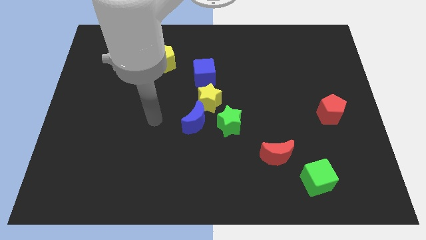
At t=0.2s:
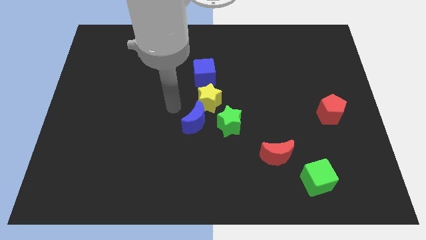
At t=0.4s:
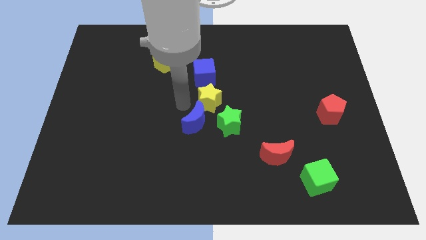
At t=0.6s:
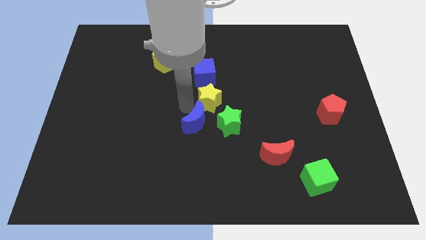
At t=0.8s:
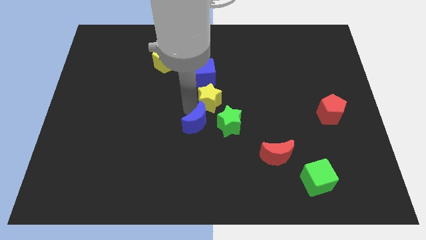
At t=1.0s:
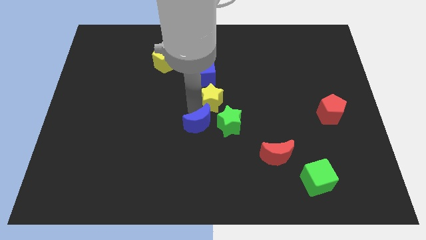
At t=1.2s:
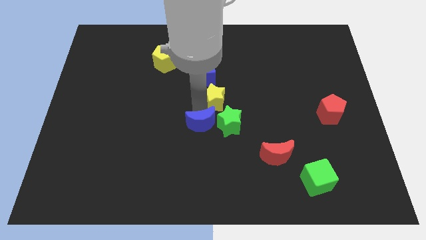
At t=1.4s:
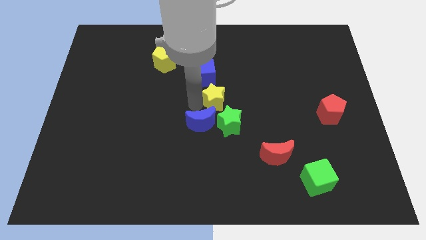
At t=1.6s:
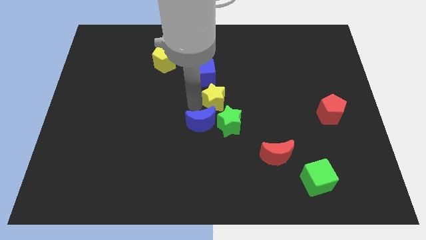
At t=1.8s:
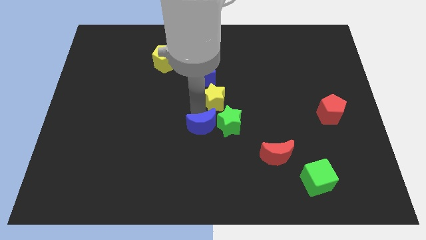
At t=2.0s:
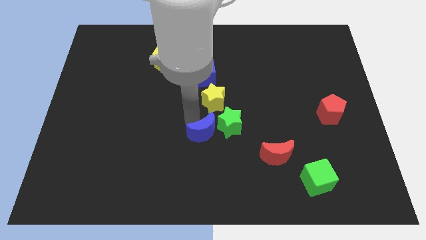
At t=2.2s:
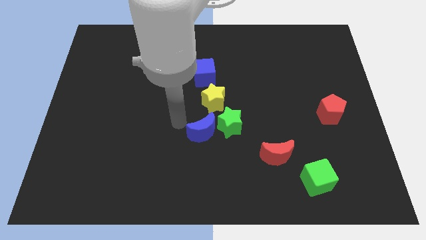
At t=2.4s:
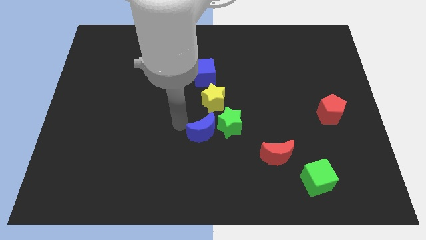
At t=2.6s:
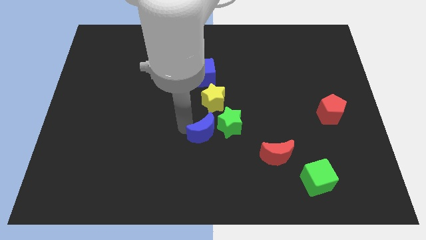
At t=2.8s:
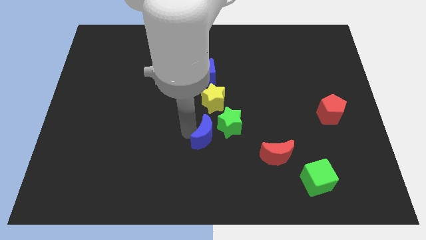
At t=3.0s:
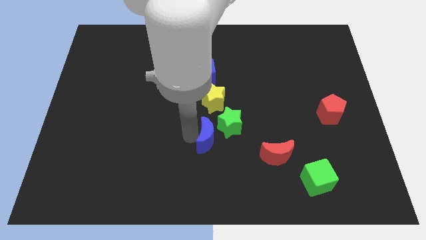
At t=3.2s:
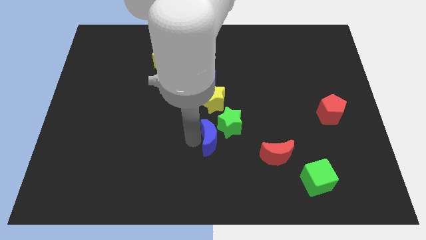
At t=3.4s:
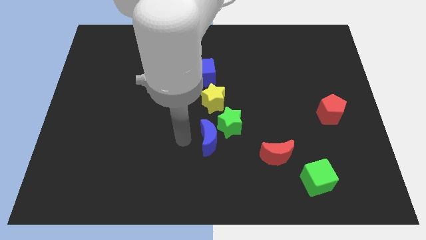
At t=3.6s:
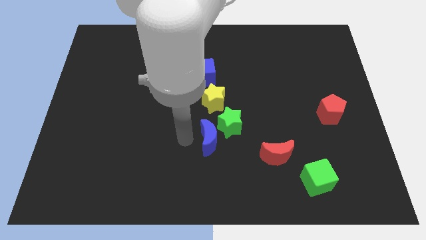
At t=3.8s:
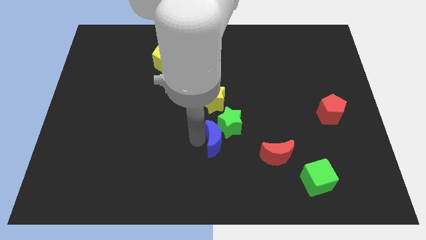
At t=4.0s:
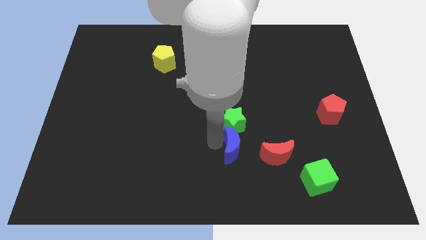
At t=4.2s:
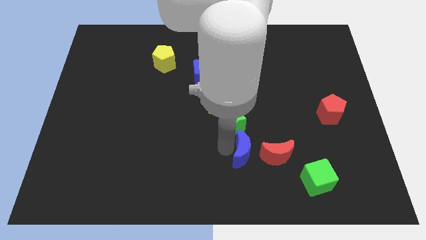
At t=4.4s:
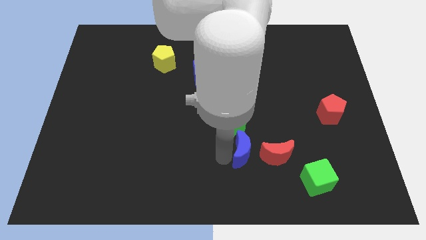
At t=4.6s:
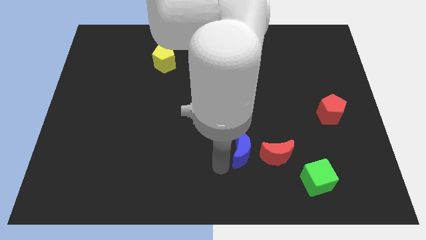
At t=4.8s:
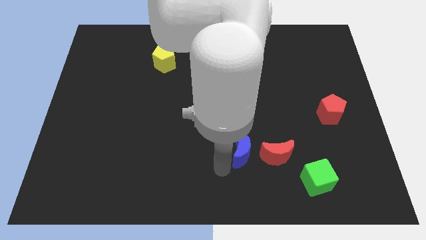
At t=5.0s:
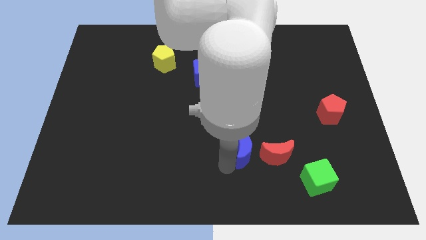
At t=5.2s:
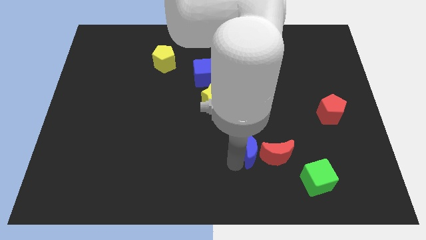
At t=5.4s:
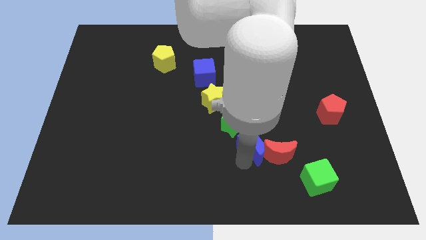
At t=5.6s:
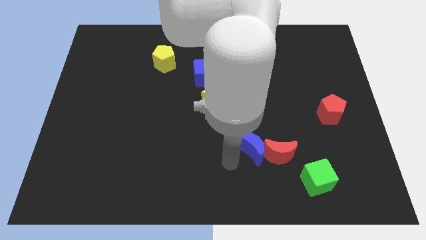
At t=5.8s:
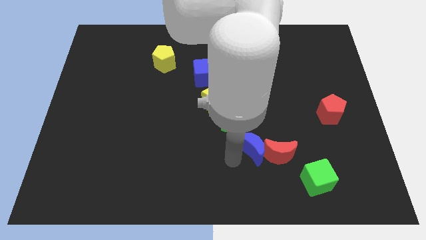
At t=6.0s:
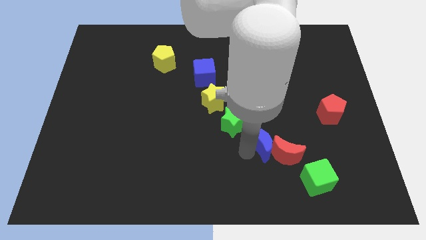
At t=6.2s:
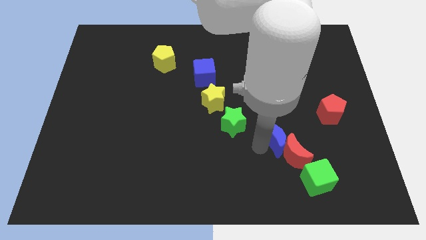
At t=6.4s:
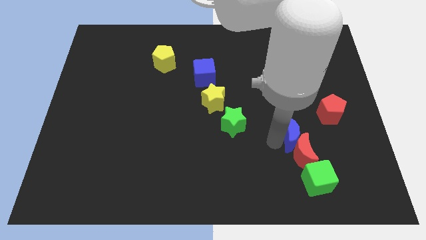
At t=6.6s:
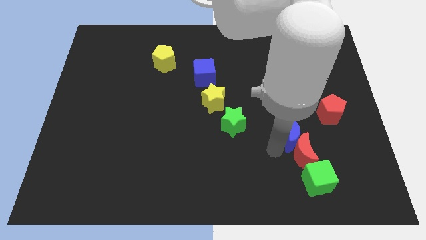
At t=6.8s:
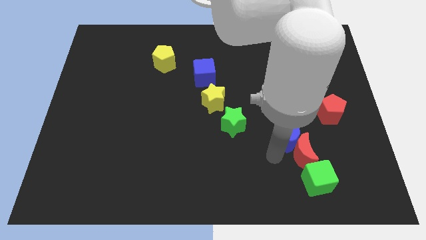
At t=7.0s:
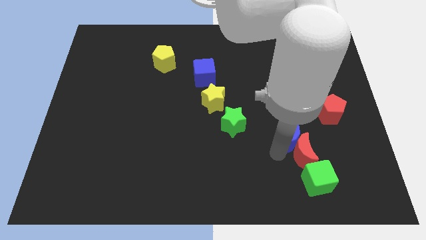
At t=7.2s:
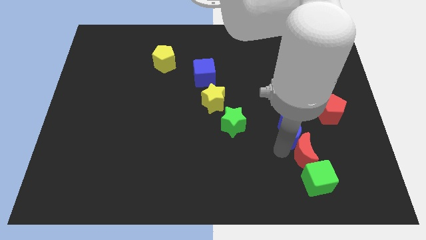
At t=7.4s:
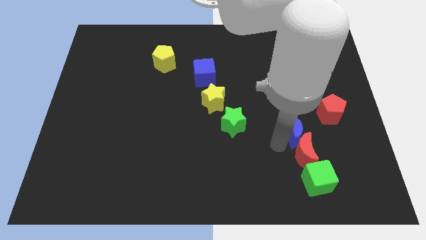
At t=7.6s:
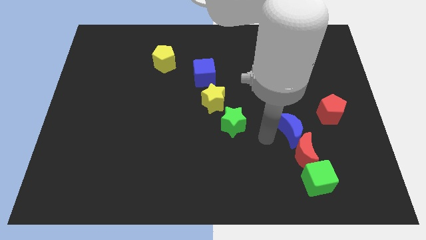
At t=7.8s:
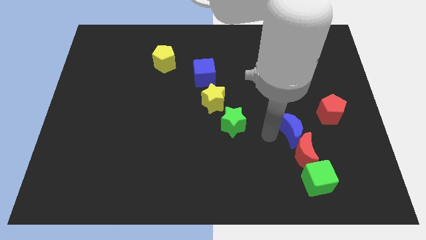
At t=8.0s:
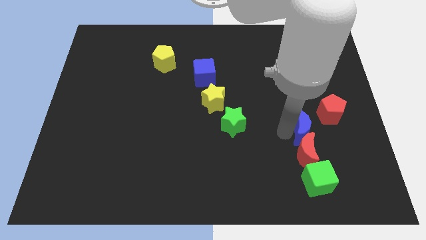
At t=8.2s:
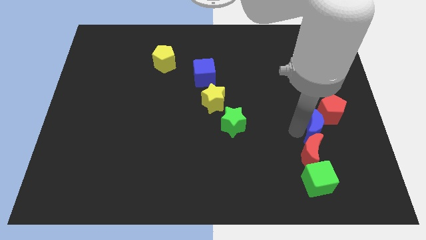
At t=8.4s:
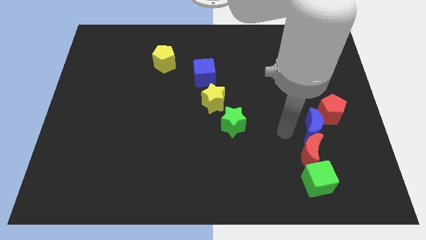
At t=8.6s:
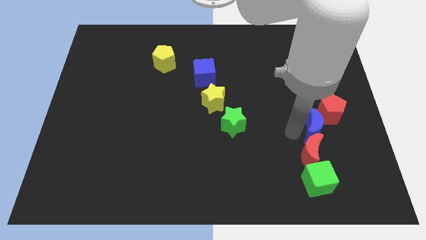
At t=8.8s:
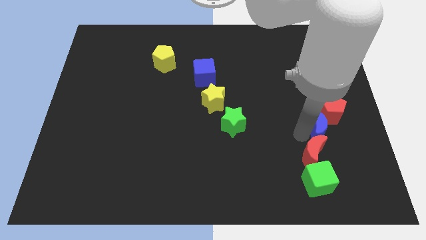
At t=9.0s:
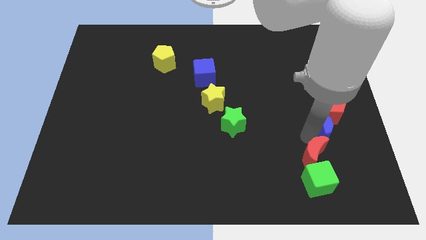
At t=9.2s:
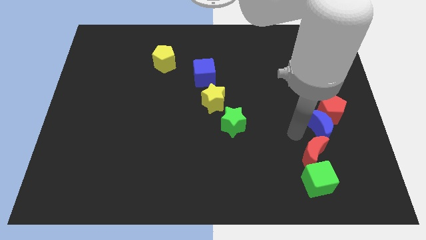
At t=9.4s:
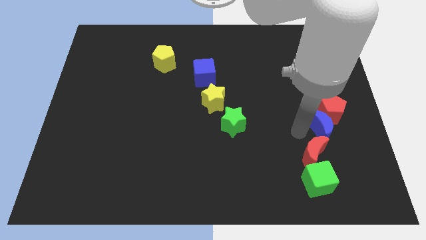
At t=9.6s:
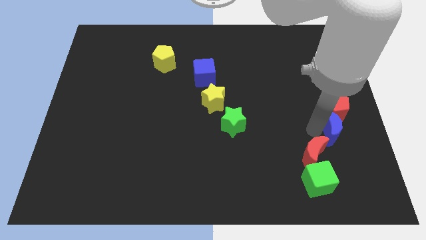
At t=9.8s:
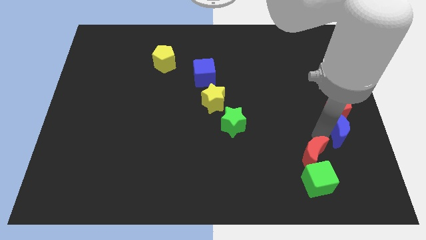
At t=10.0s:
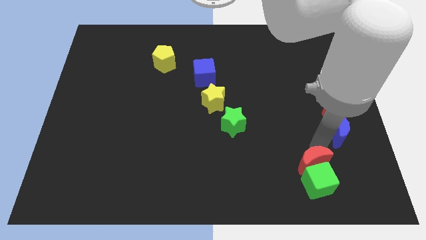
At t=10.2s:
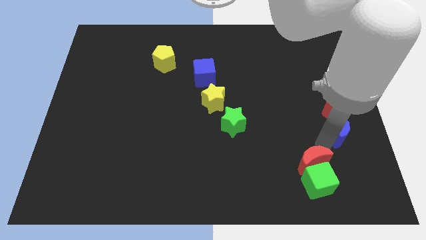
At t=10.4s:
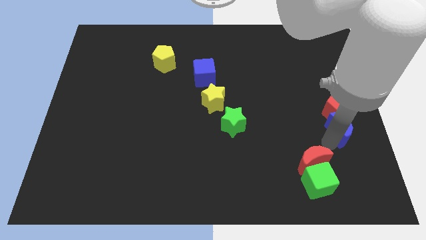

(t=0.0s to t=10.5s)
slide the blue moon to the right side

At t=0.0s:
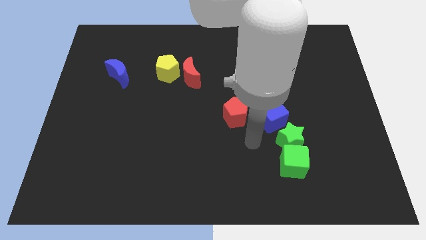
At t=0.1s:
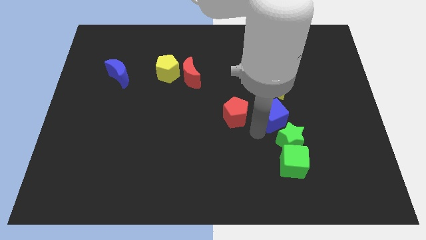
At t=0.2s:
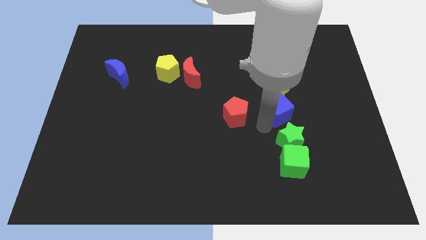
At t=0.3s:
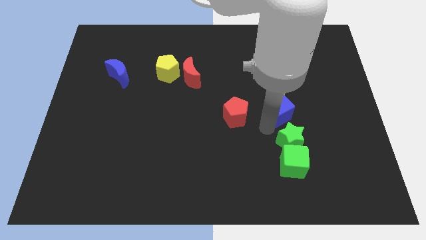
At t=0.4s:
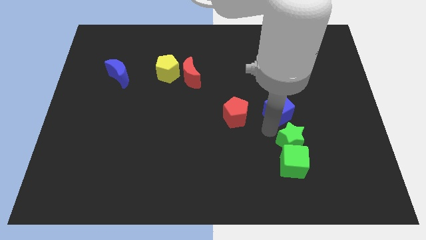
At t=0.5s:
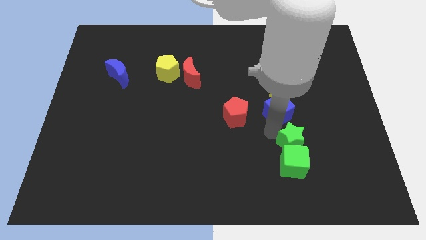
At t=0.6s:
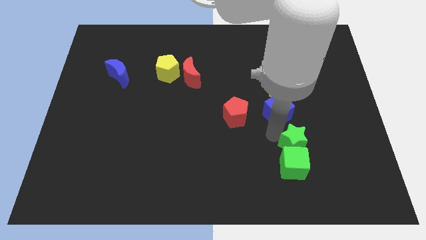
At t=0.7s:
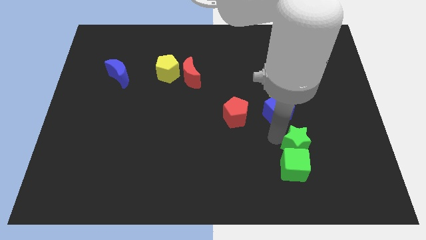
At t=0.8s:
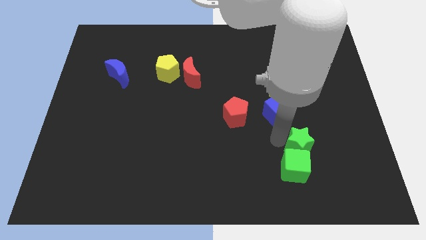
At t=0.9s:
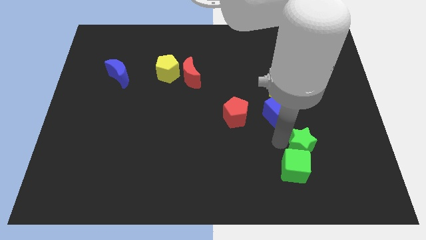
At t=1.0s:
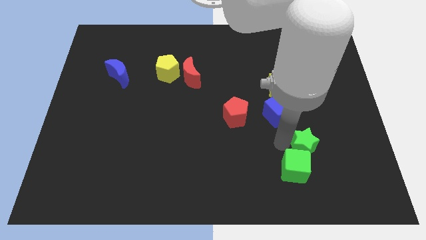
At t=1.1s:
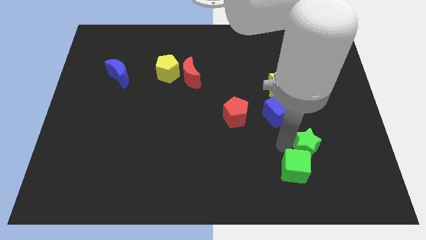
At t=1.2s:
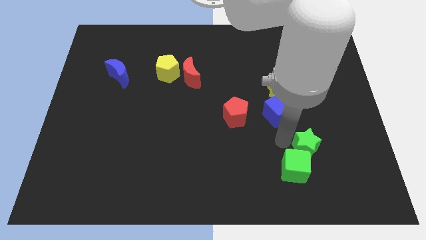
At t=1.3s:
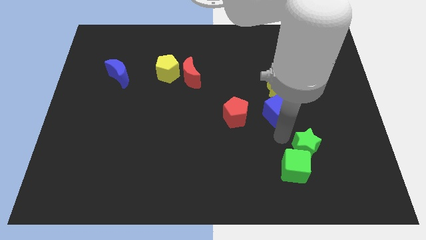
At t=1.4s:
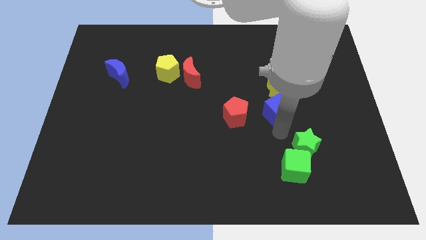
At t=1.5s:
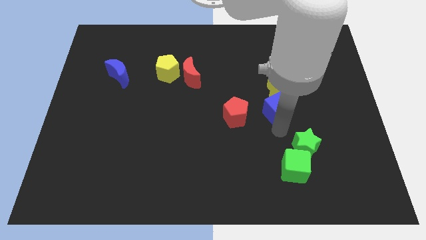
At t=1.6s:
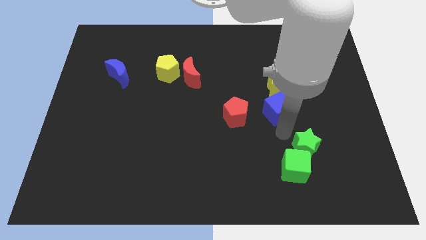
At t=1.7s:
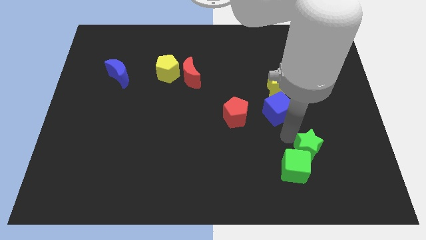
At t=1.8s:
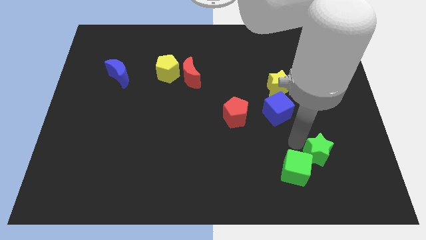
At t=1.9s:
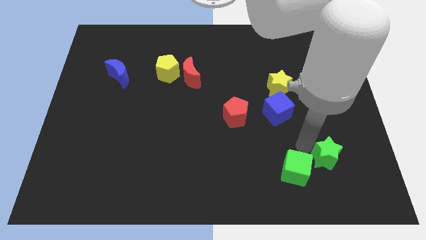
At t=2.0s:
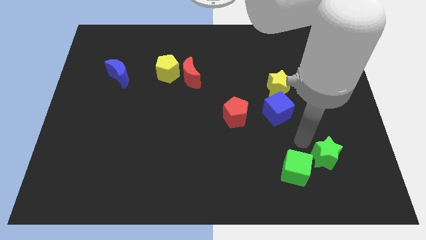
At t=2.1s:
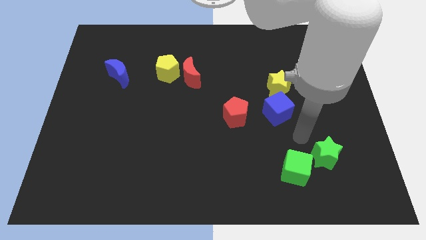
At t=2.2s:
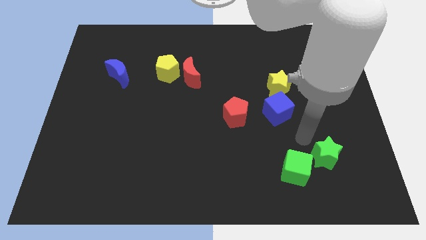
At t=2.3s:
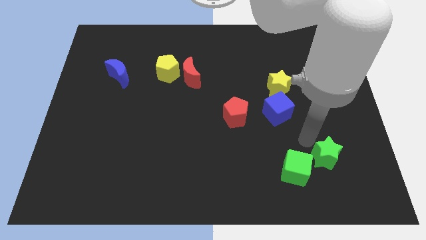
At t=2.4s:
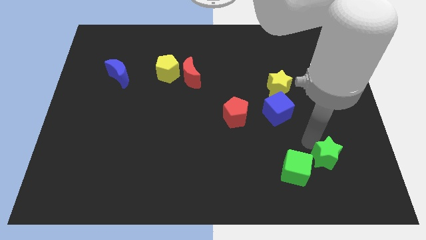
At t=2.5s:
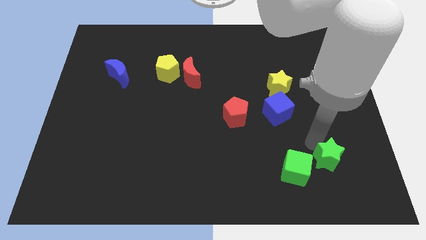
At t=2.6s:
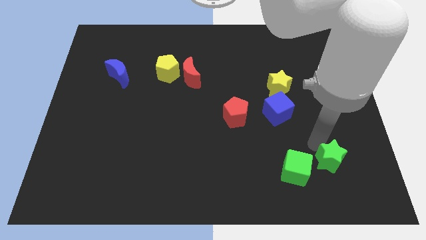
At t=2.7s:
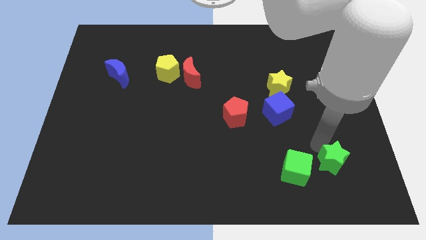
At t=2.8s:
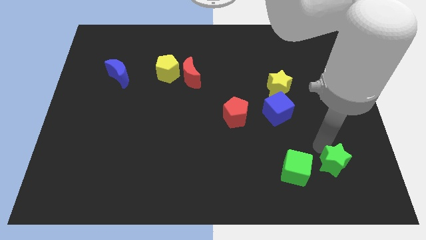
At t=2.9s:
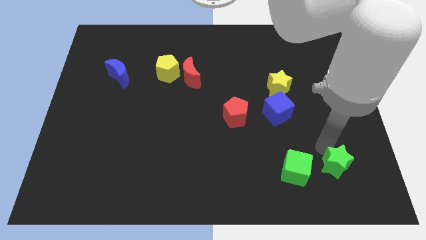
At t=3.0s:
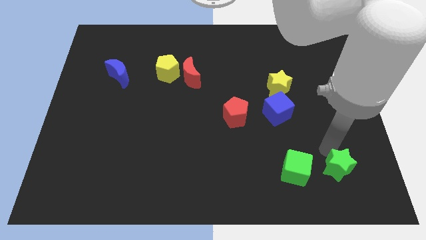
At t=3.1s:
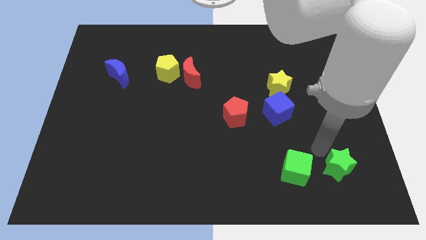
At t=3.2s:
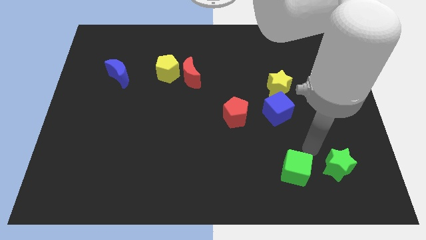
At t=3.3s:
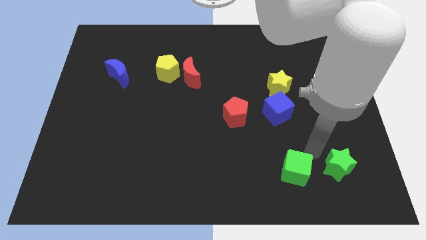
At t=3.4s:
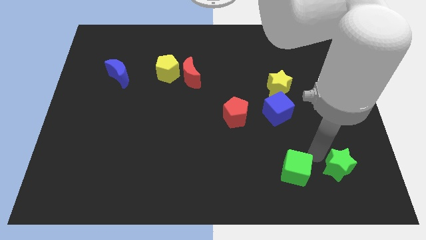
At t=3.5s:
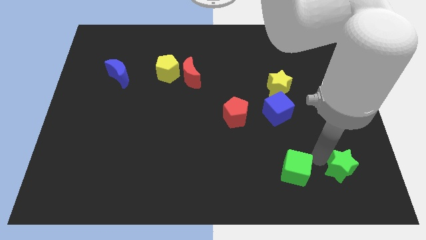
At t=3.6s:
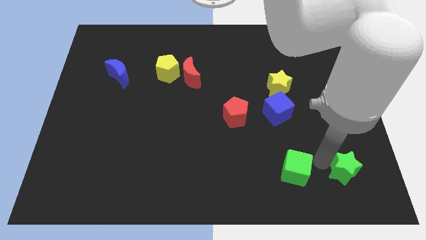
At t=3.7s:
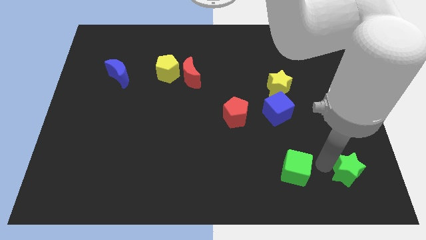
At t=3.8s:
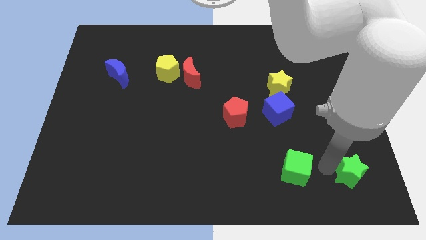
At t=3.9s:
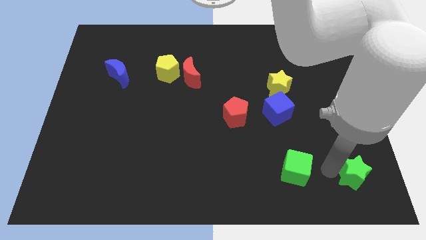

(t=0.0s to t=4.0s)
move the green star to the bottom right of the board
